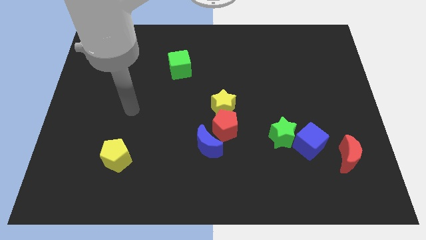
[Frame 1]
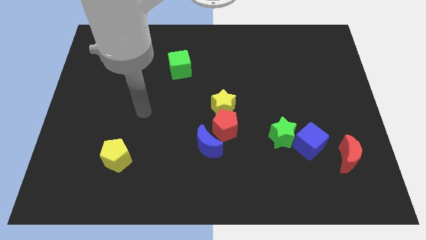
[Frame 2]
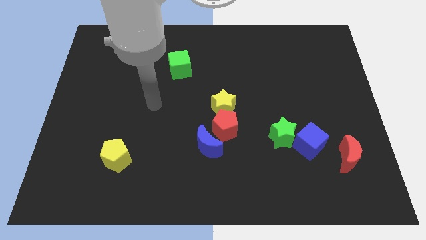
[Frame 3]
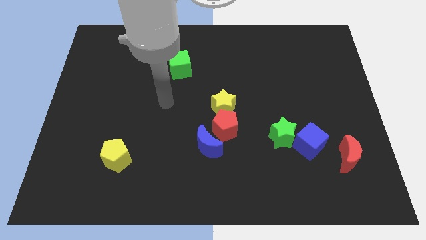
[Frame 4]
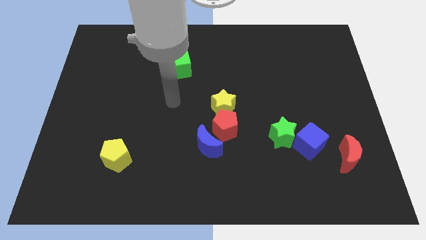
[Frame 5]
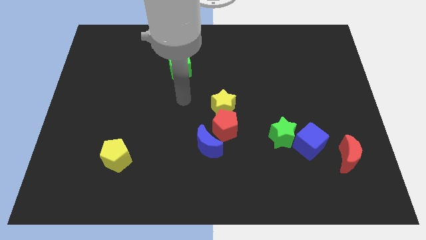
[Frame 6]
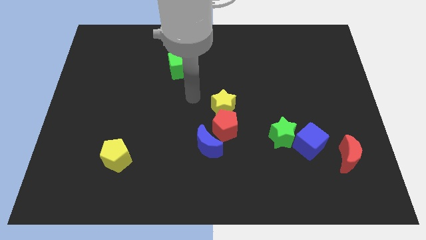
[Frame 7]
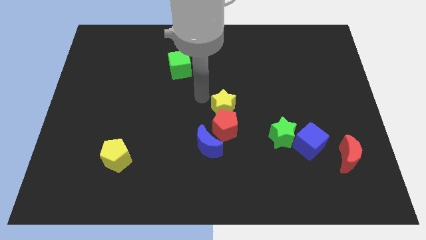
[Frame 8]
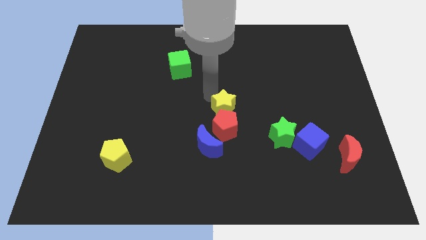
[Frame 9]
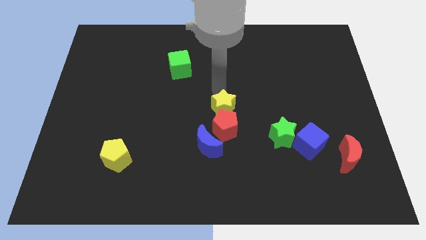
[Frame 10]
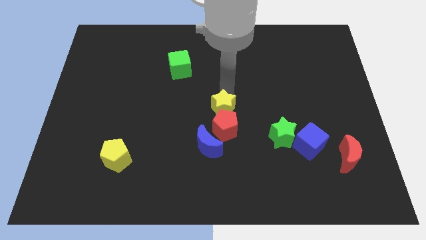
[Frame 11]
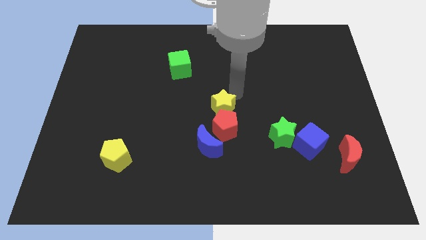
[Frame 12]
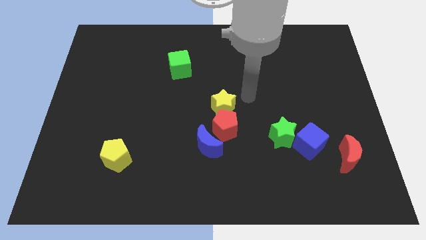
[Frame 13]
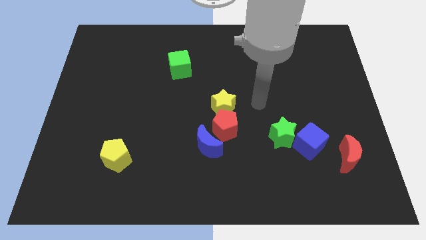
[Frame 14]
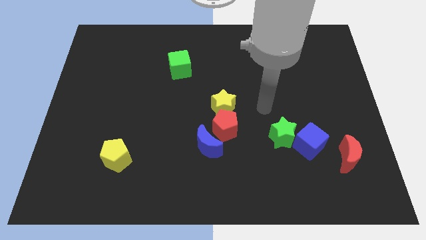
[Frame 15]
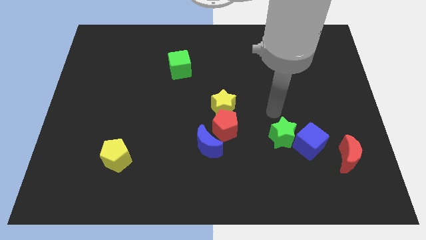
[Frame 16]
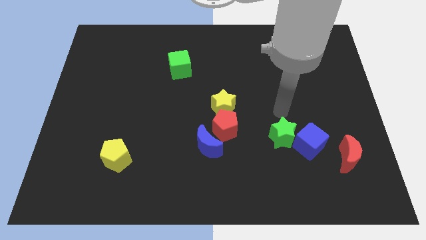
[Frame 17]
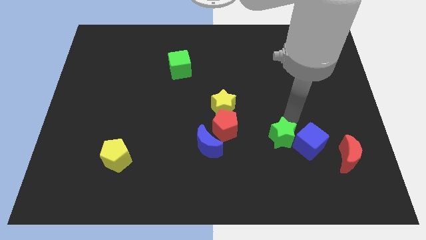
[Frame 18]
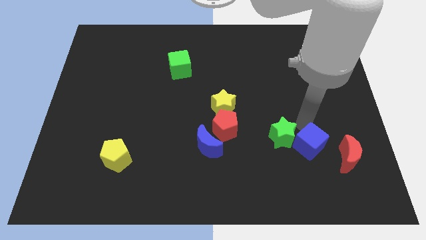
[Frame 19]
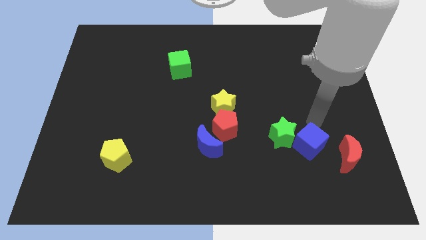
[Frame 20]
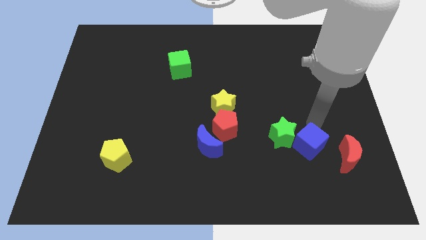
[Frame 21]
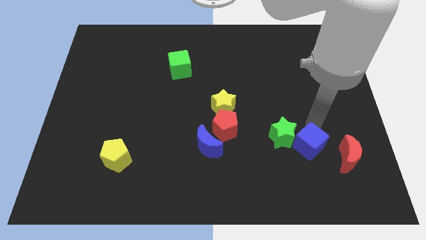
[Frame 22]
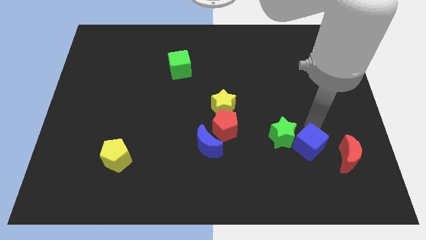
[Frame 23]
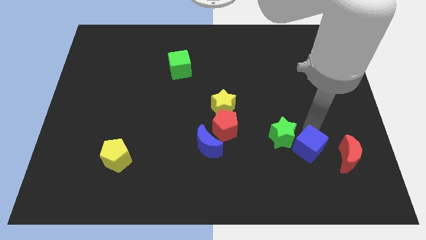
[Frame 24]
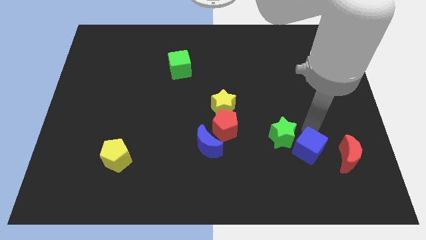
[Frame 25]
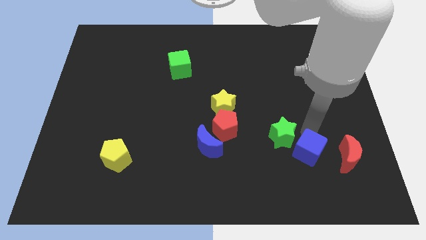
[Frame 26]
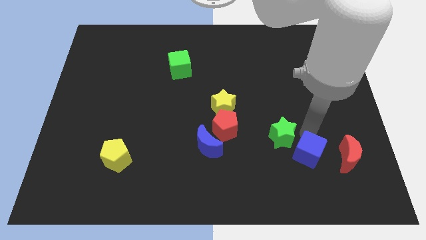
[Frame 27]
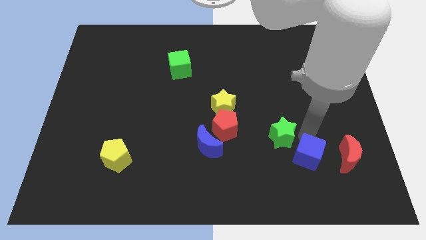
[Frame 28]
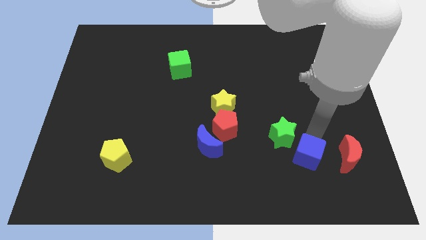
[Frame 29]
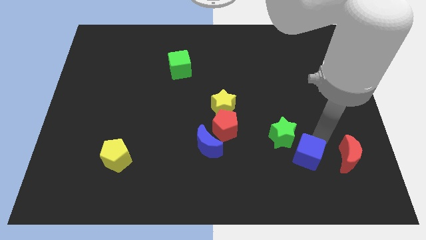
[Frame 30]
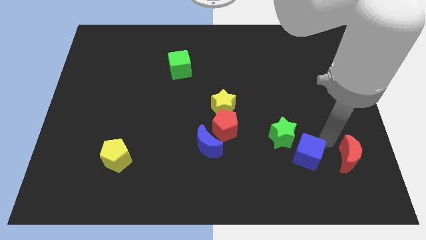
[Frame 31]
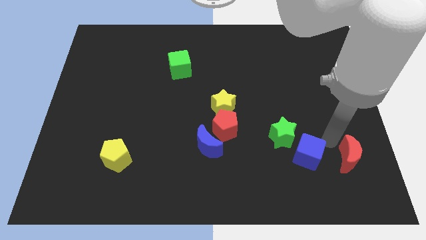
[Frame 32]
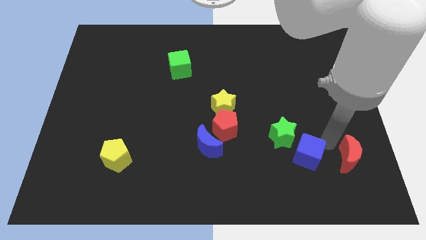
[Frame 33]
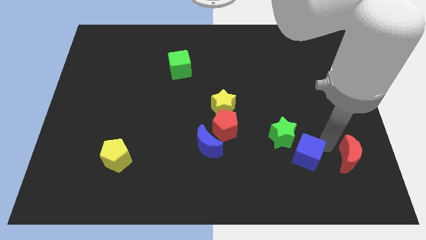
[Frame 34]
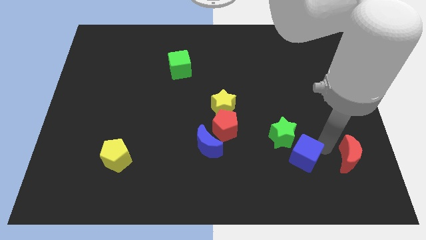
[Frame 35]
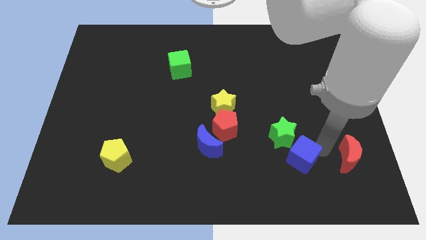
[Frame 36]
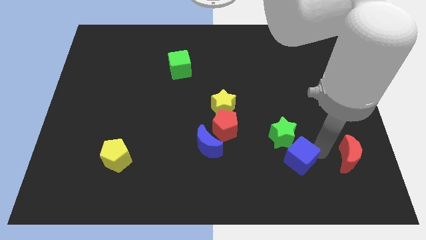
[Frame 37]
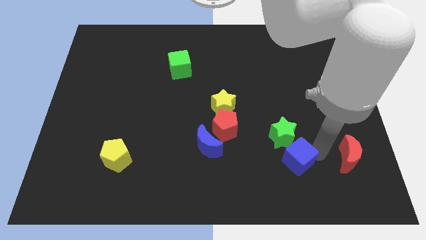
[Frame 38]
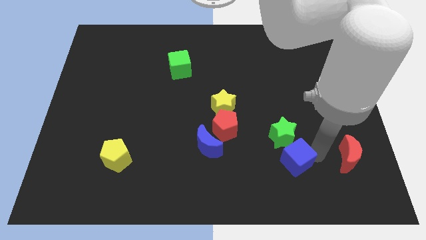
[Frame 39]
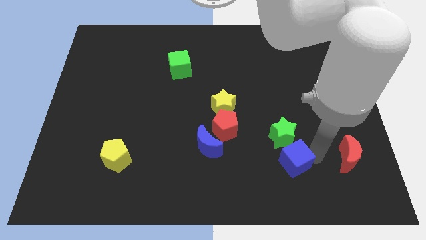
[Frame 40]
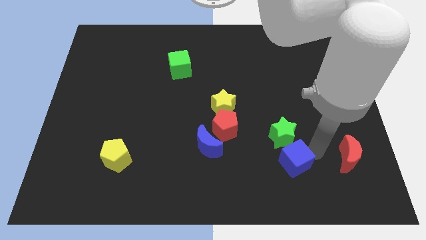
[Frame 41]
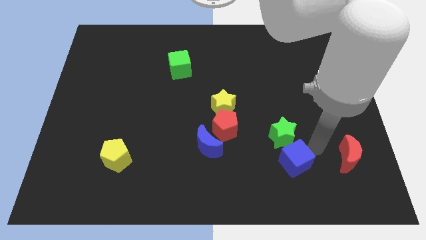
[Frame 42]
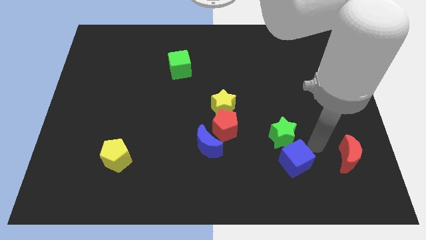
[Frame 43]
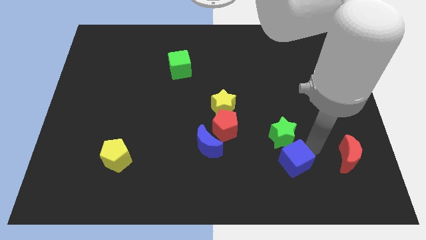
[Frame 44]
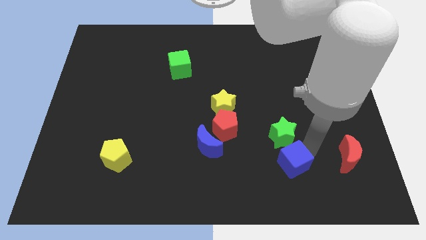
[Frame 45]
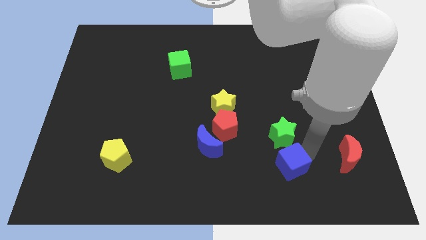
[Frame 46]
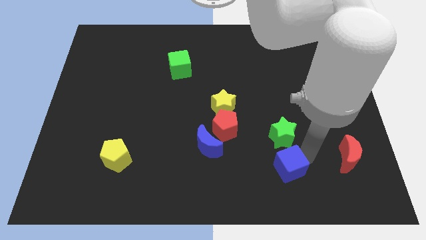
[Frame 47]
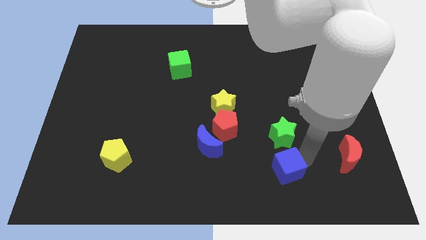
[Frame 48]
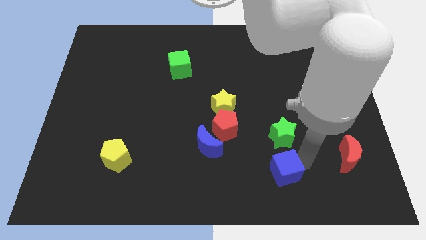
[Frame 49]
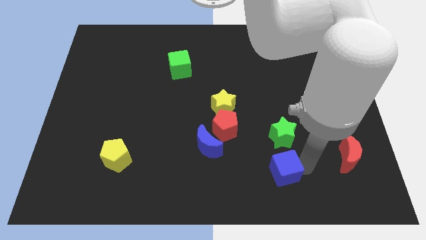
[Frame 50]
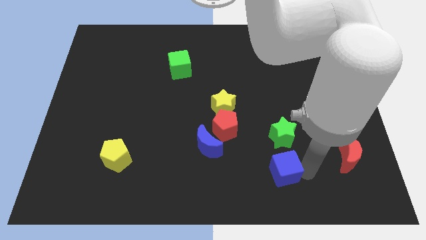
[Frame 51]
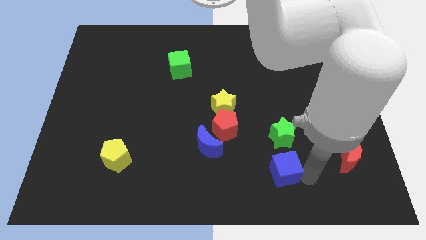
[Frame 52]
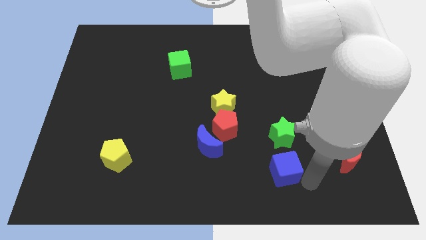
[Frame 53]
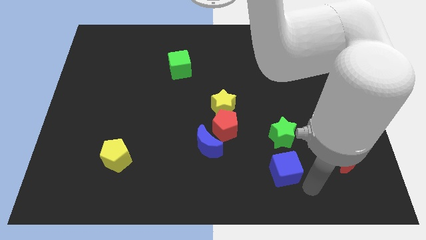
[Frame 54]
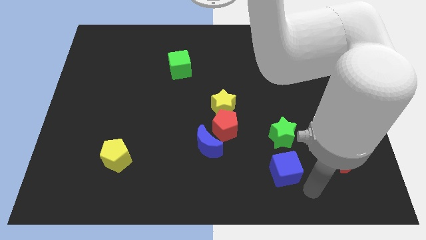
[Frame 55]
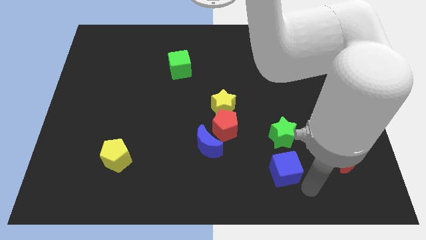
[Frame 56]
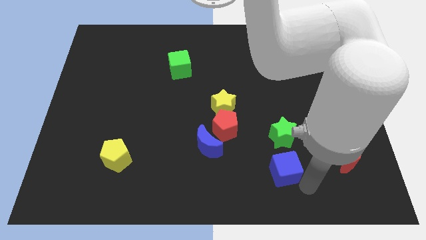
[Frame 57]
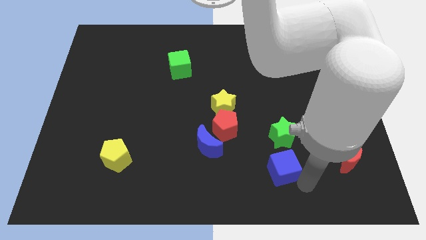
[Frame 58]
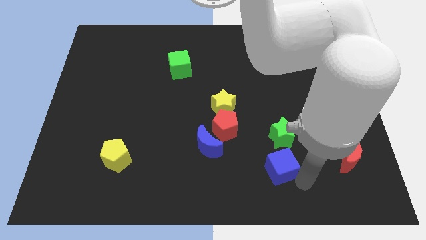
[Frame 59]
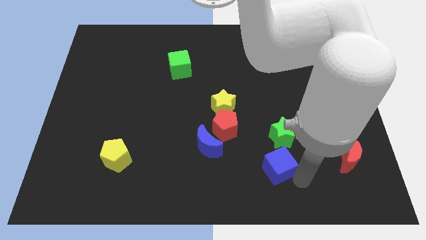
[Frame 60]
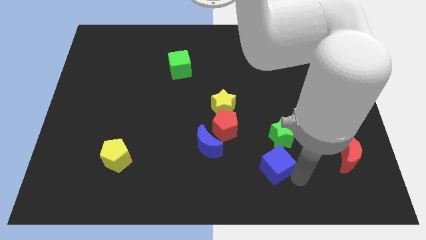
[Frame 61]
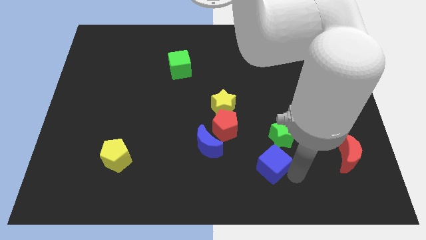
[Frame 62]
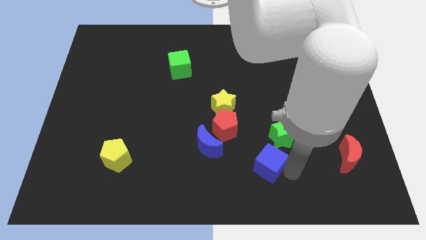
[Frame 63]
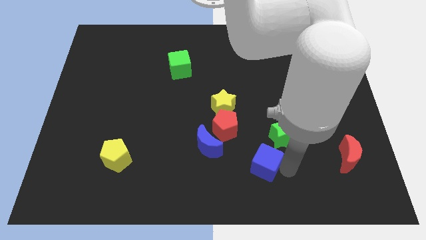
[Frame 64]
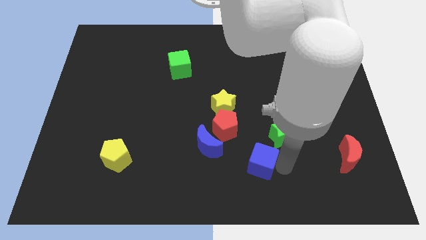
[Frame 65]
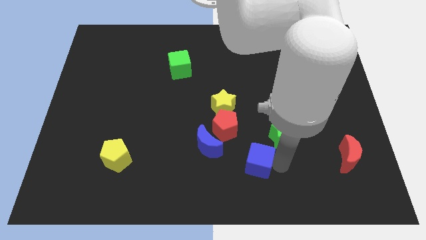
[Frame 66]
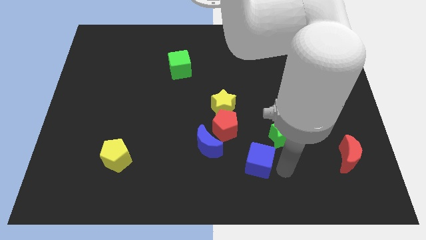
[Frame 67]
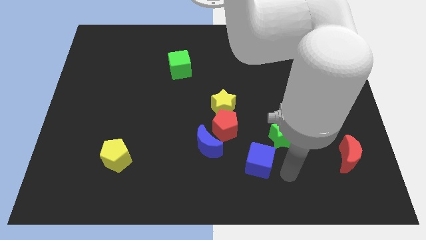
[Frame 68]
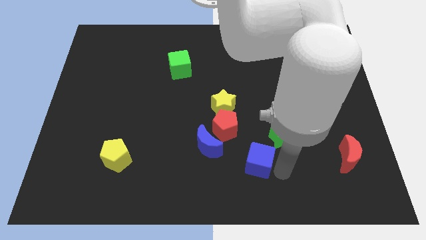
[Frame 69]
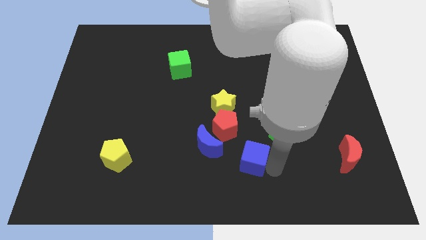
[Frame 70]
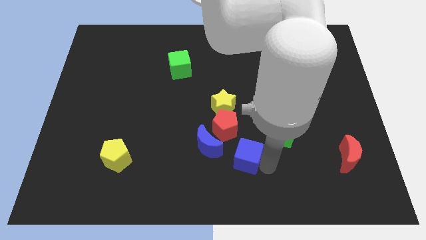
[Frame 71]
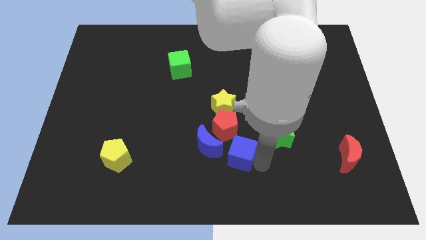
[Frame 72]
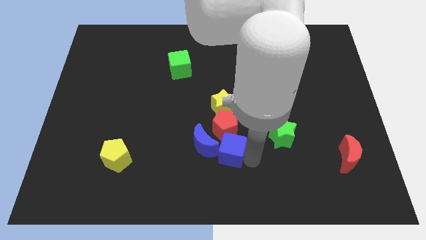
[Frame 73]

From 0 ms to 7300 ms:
move the blue cube close to the blue moon
